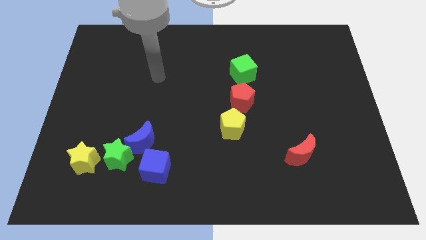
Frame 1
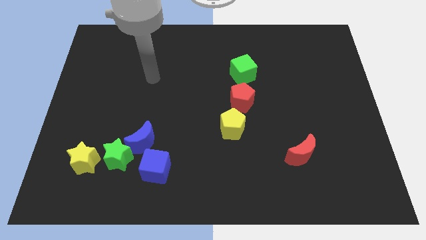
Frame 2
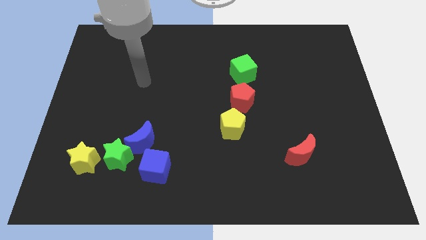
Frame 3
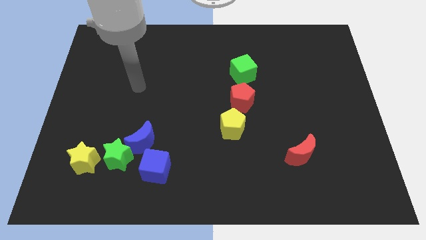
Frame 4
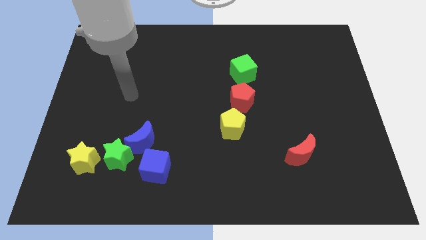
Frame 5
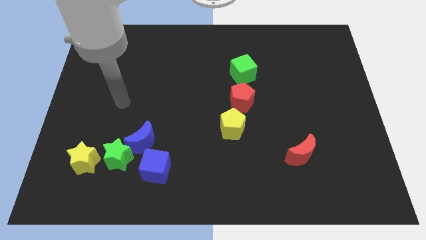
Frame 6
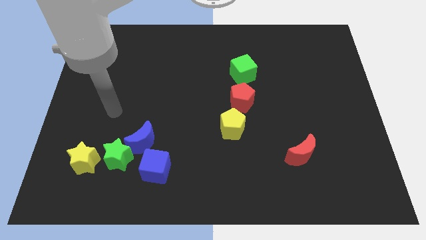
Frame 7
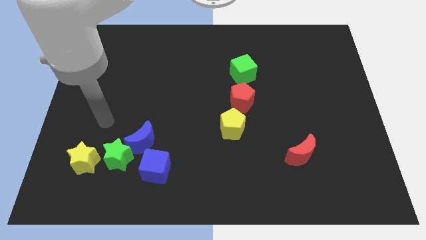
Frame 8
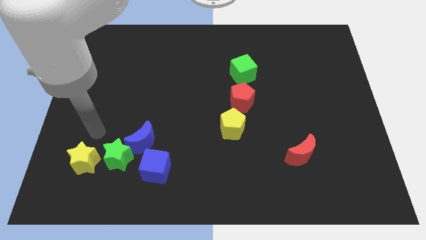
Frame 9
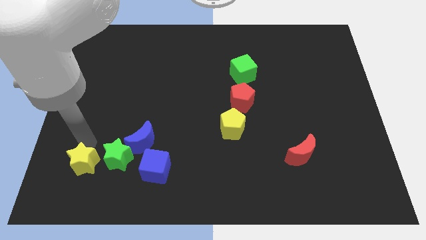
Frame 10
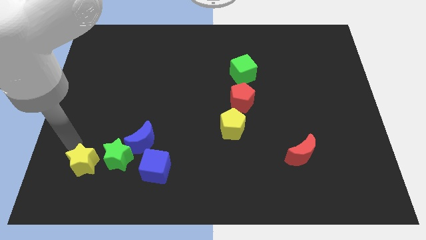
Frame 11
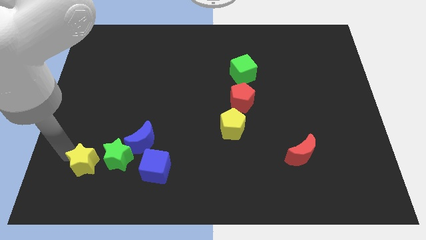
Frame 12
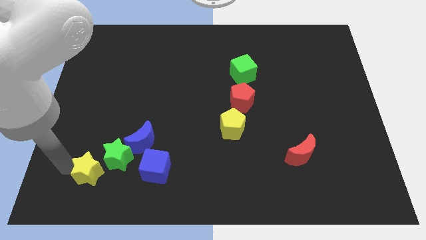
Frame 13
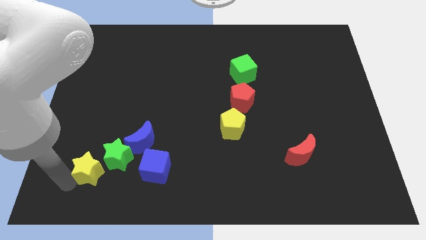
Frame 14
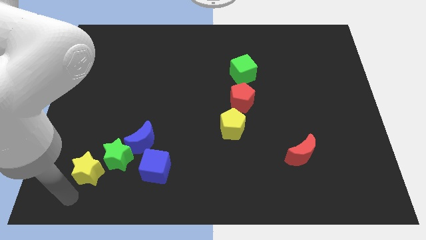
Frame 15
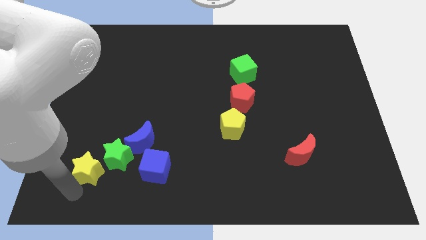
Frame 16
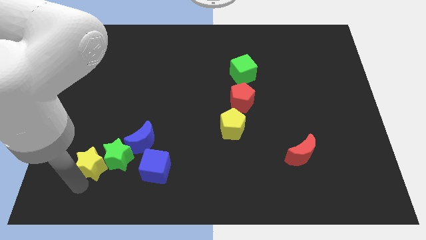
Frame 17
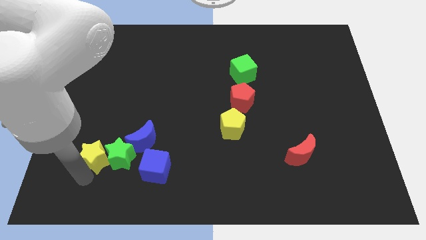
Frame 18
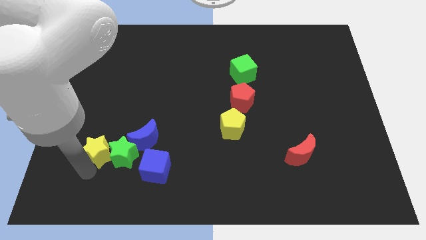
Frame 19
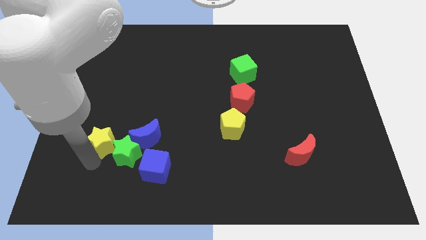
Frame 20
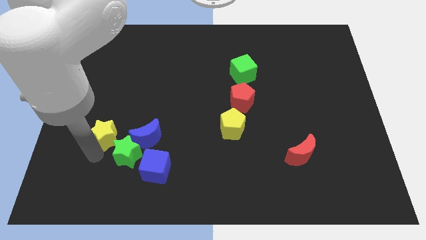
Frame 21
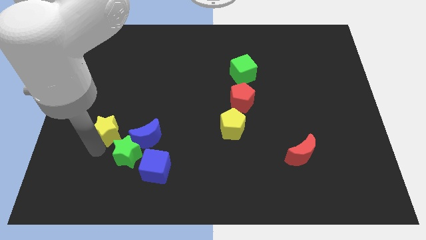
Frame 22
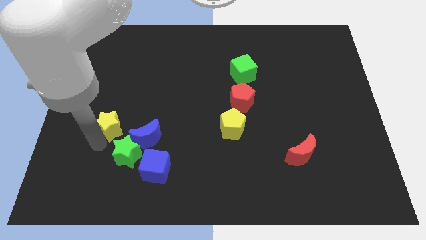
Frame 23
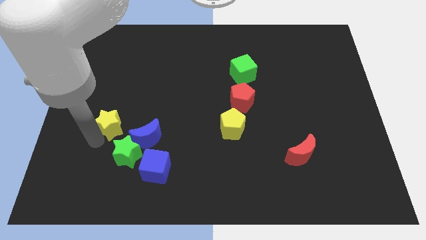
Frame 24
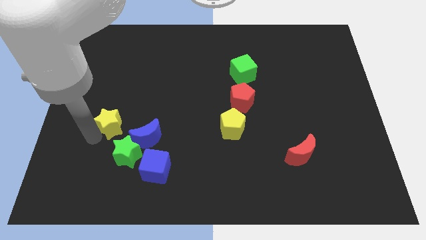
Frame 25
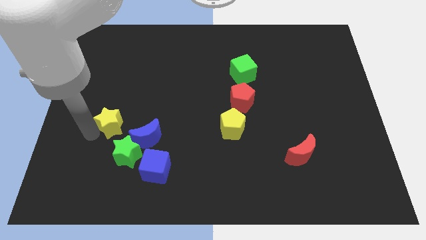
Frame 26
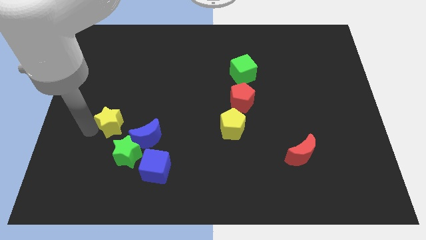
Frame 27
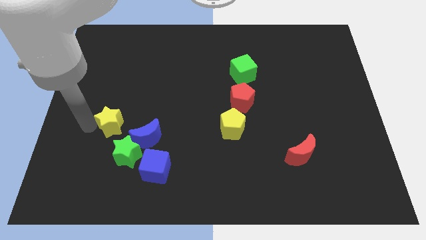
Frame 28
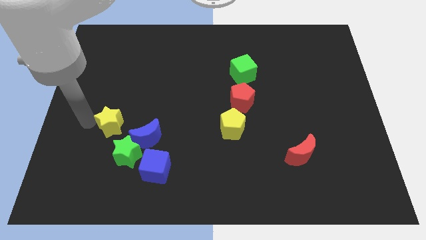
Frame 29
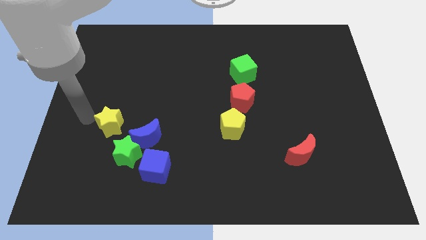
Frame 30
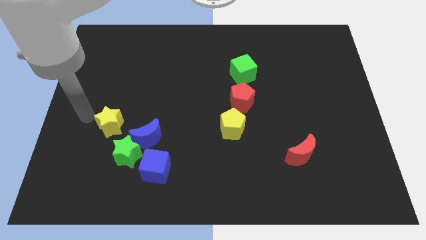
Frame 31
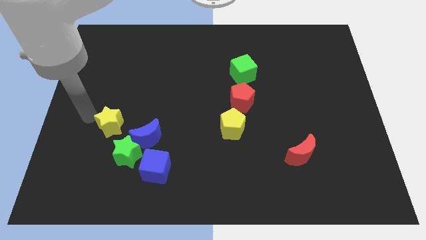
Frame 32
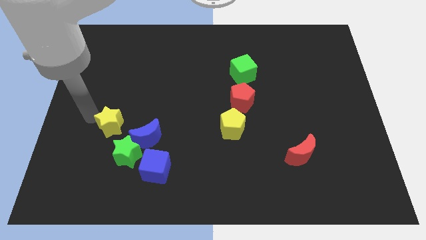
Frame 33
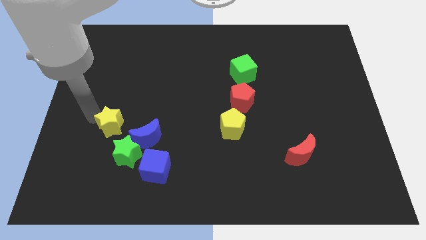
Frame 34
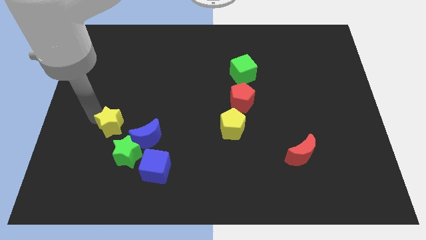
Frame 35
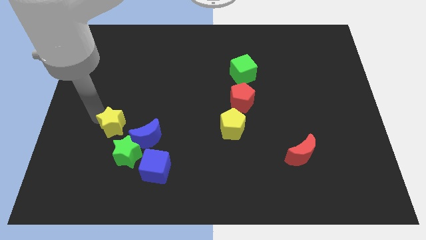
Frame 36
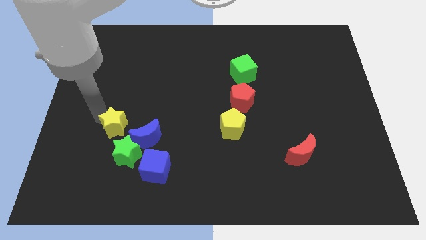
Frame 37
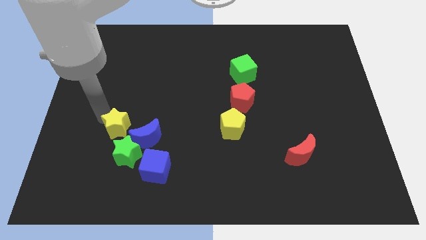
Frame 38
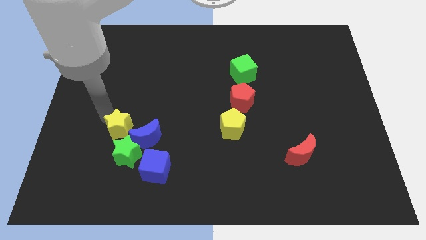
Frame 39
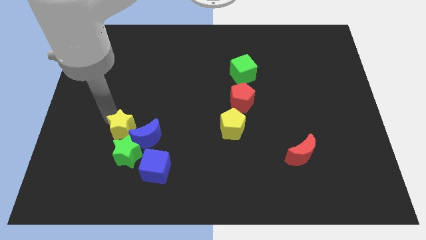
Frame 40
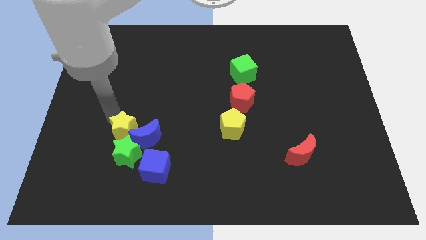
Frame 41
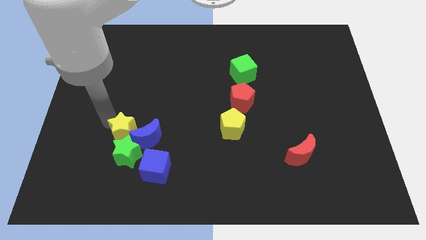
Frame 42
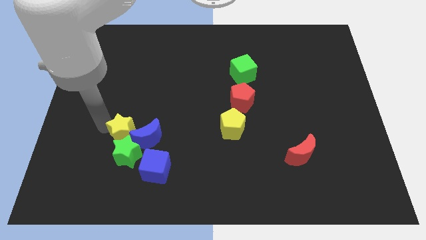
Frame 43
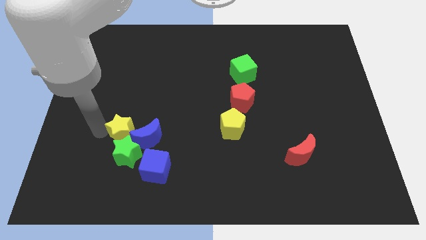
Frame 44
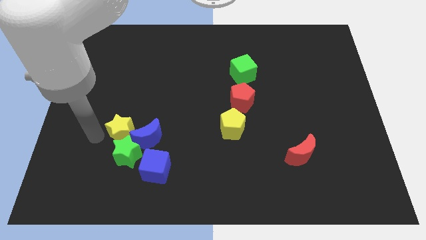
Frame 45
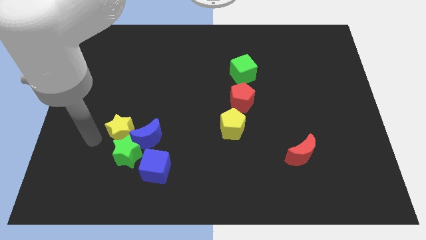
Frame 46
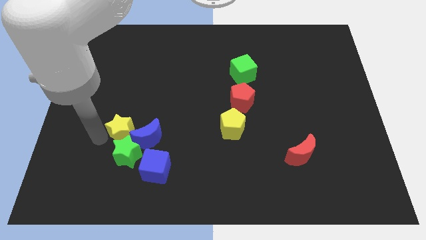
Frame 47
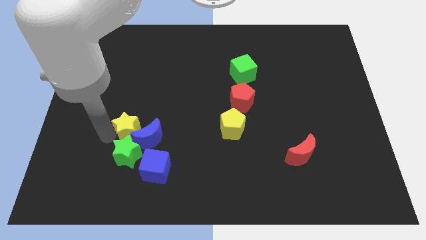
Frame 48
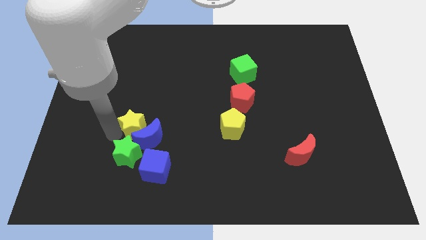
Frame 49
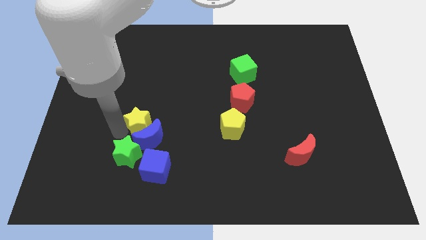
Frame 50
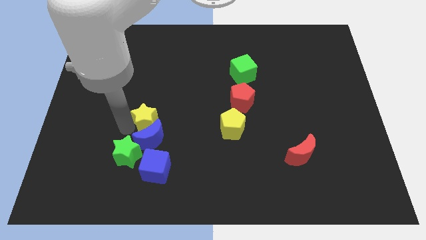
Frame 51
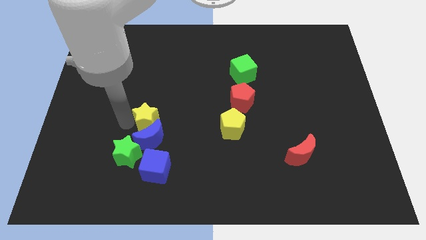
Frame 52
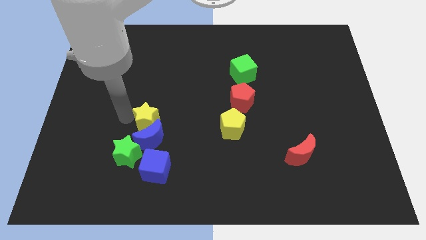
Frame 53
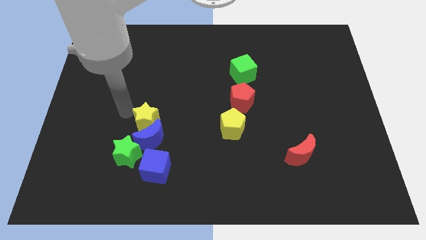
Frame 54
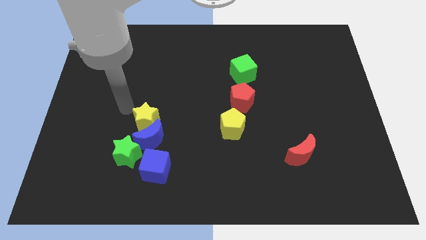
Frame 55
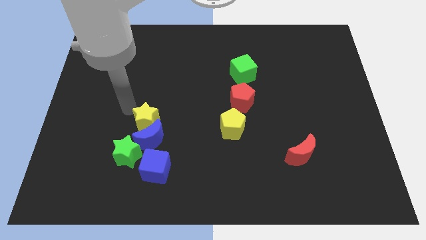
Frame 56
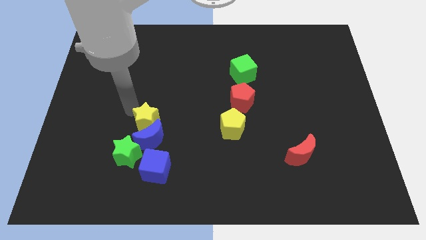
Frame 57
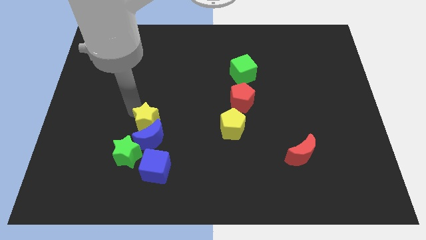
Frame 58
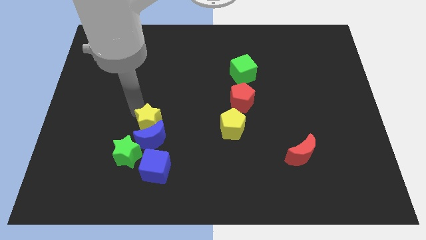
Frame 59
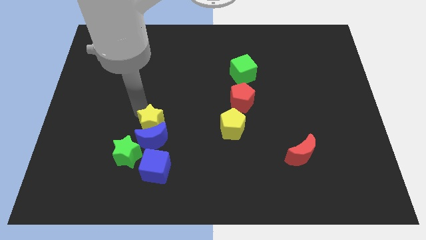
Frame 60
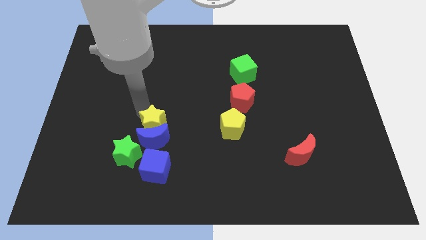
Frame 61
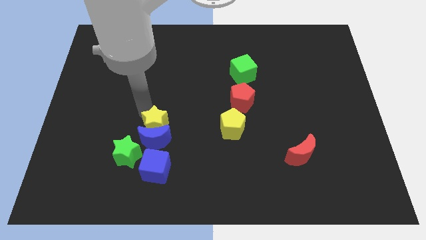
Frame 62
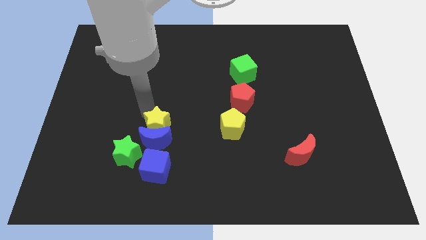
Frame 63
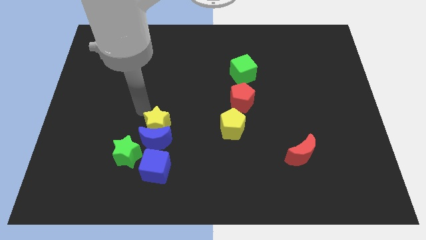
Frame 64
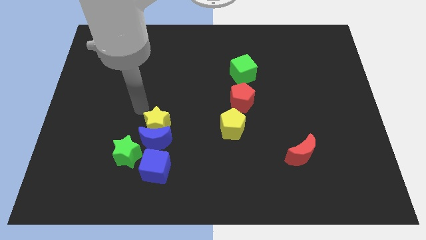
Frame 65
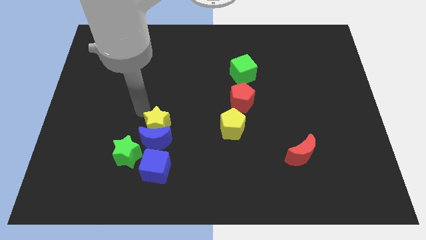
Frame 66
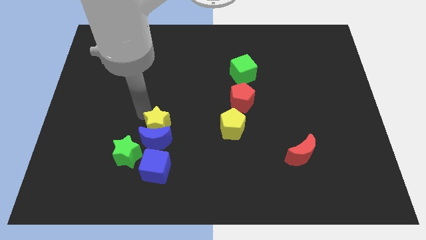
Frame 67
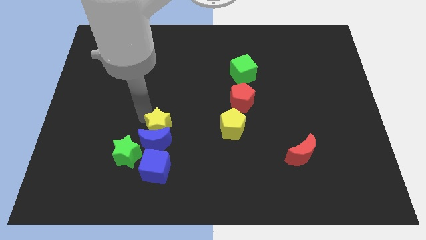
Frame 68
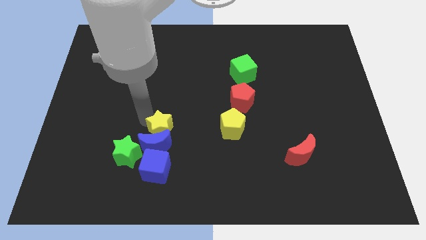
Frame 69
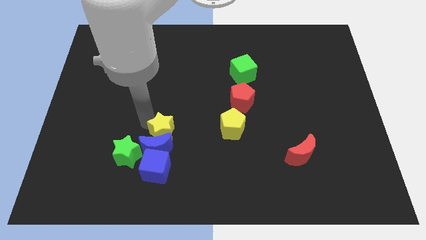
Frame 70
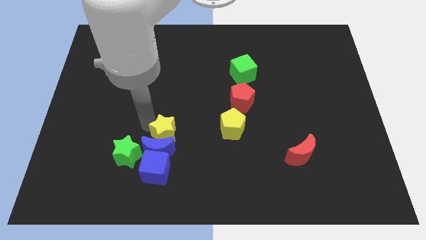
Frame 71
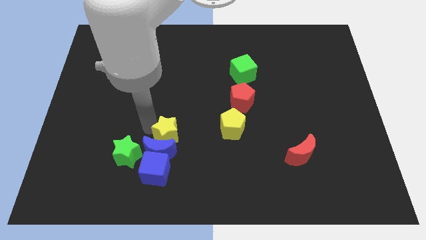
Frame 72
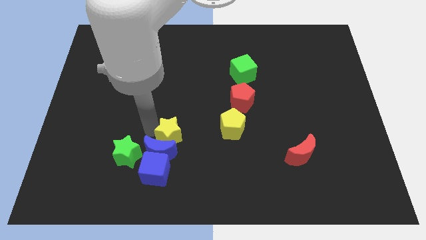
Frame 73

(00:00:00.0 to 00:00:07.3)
move the yellow star to the top right of the blue cube
